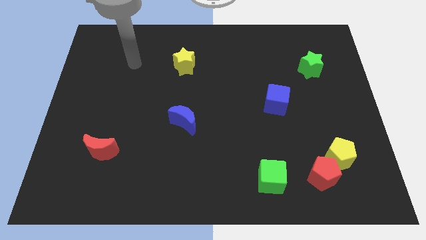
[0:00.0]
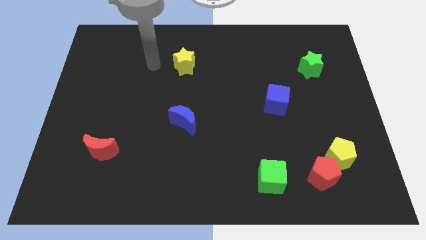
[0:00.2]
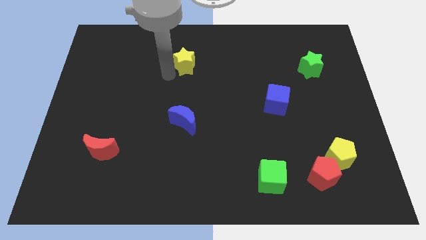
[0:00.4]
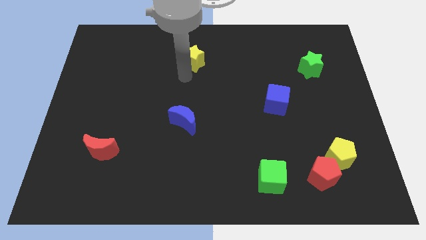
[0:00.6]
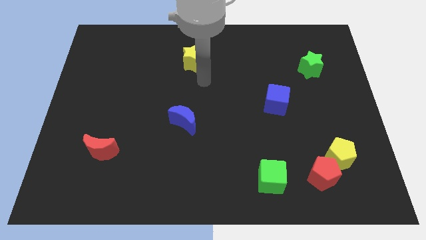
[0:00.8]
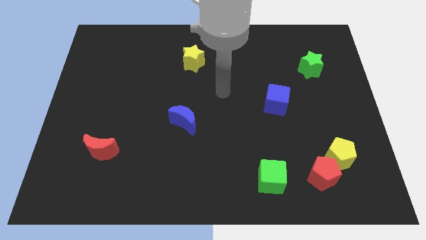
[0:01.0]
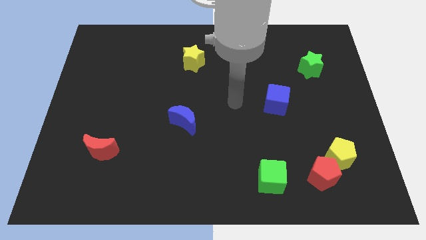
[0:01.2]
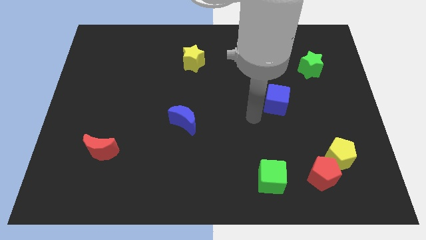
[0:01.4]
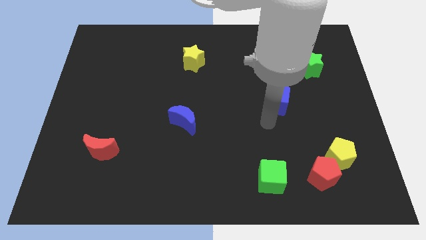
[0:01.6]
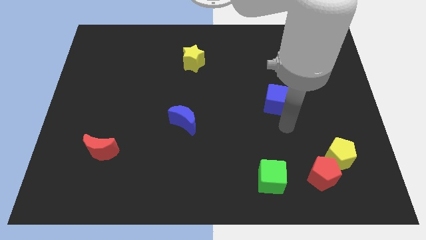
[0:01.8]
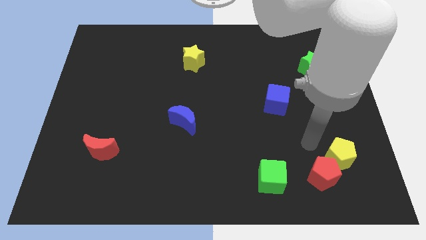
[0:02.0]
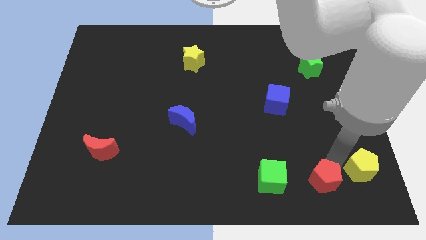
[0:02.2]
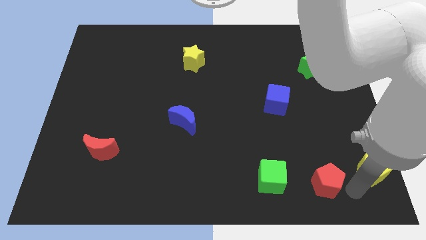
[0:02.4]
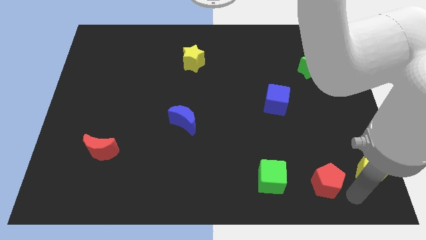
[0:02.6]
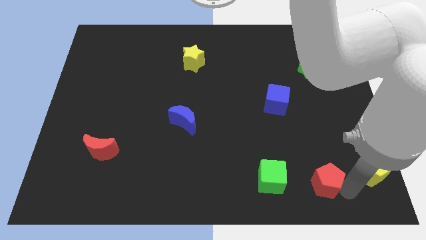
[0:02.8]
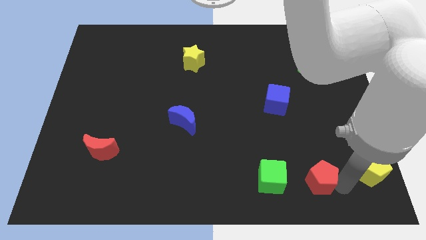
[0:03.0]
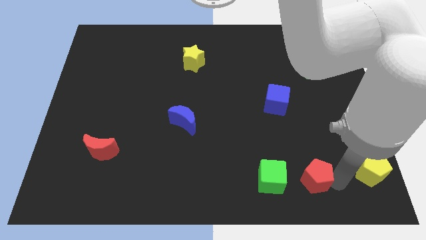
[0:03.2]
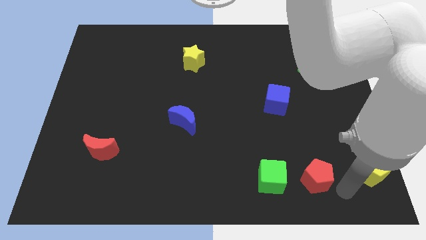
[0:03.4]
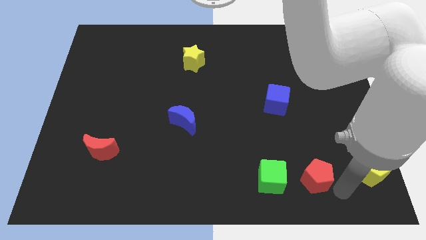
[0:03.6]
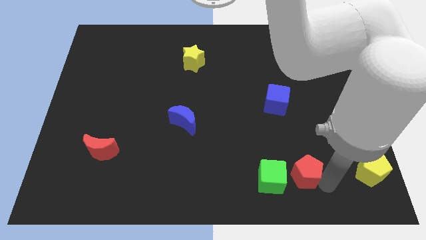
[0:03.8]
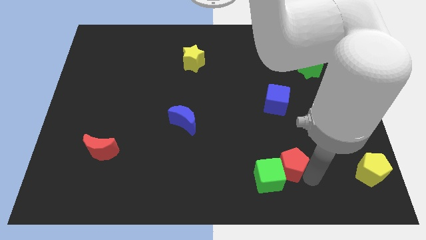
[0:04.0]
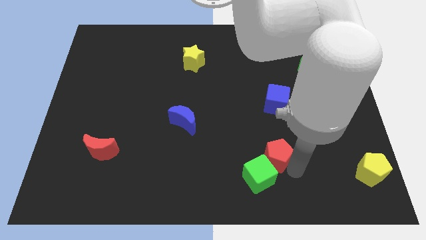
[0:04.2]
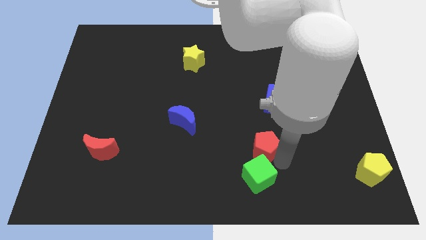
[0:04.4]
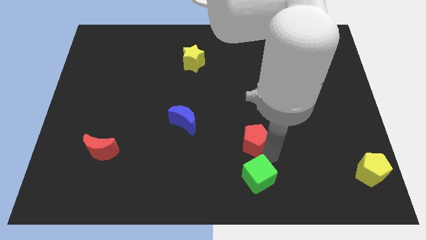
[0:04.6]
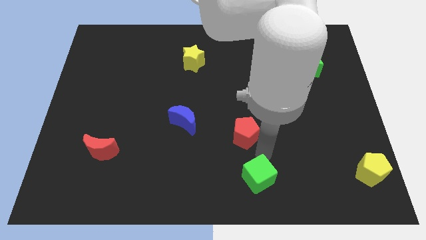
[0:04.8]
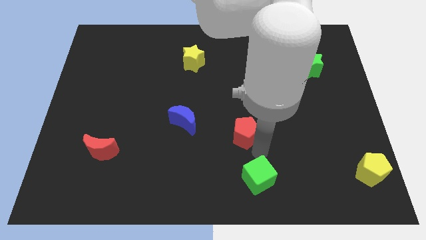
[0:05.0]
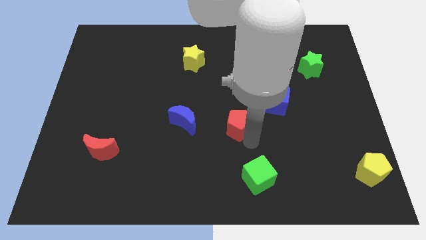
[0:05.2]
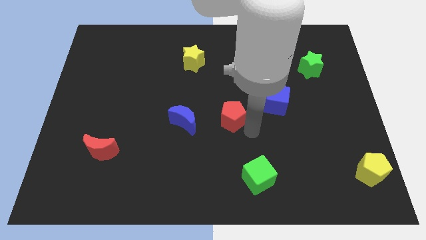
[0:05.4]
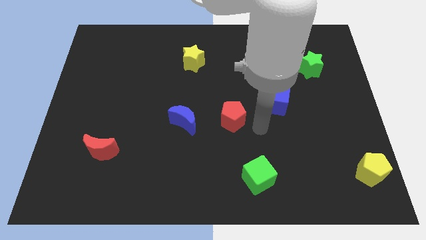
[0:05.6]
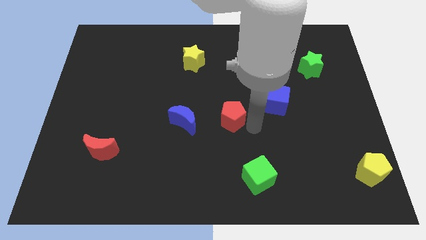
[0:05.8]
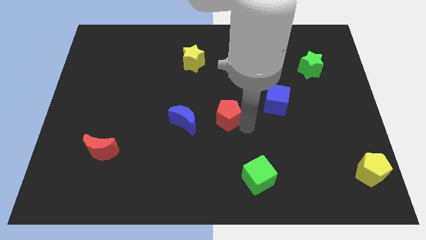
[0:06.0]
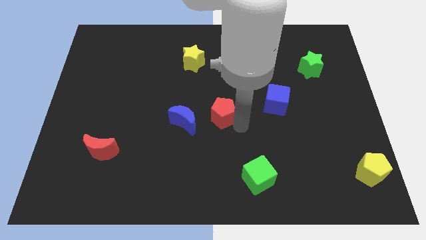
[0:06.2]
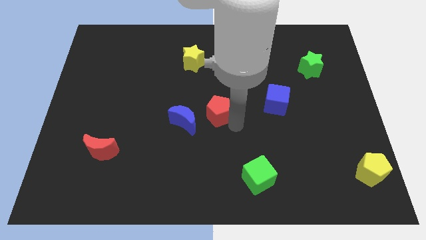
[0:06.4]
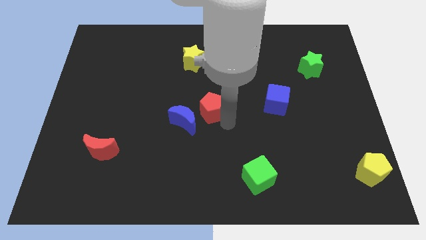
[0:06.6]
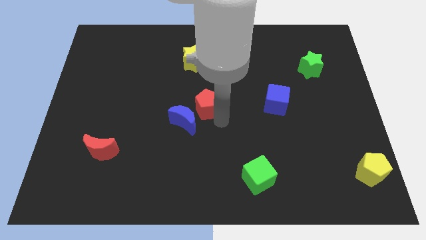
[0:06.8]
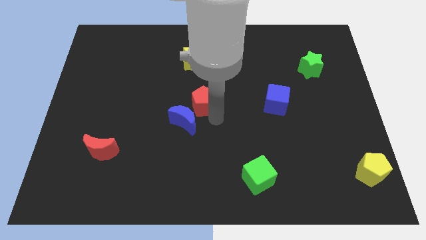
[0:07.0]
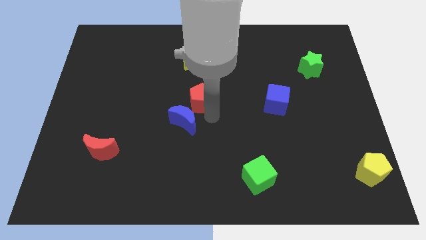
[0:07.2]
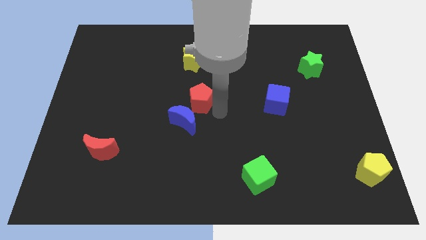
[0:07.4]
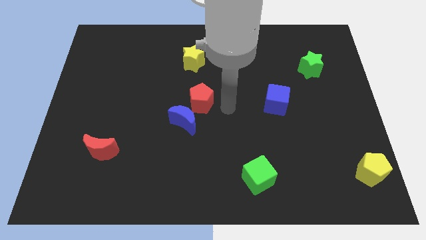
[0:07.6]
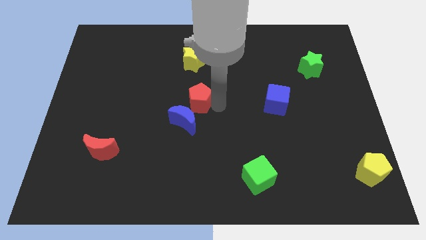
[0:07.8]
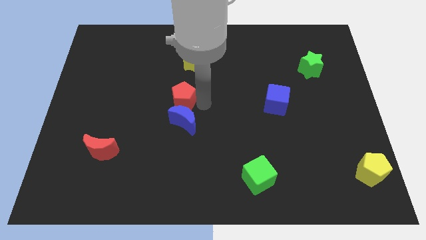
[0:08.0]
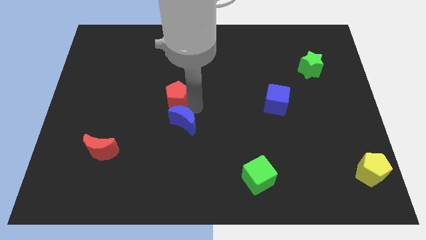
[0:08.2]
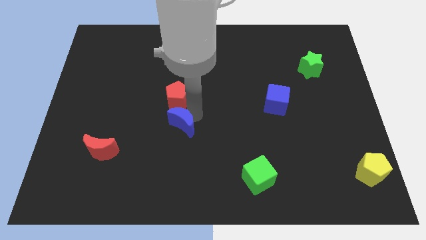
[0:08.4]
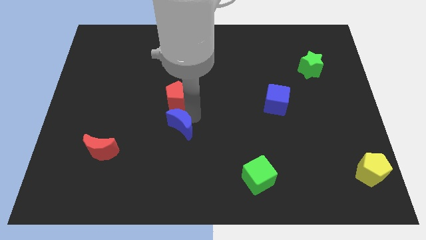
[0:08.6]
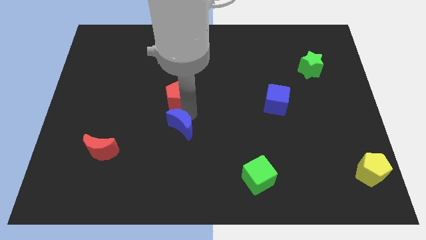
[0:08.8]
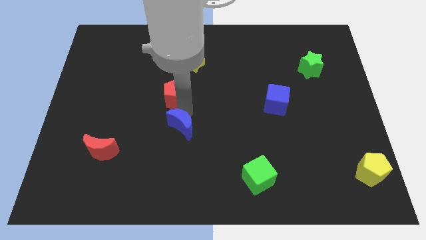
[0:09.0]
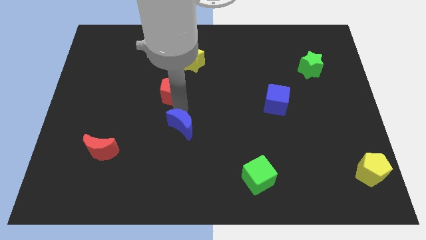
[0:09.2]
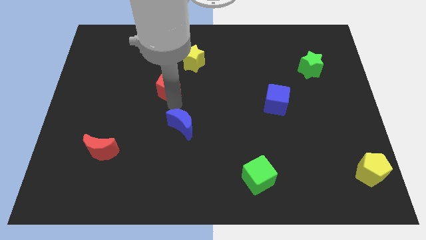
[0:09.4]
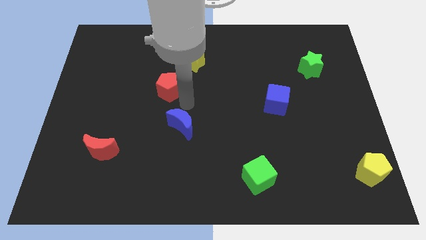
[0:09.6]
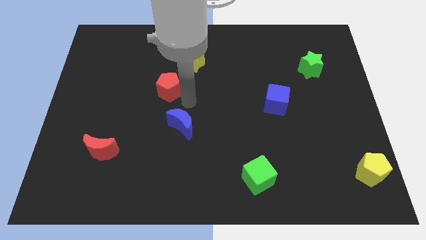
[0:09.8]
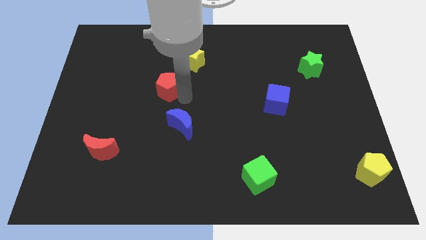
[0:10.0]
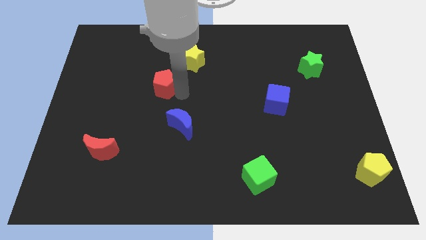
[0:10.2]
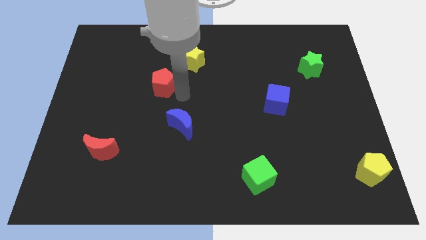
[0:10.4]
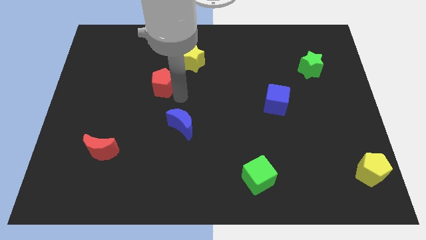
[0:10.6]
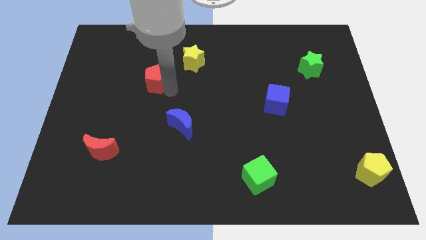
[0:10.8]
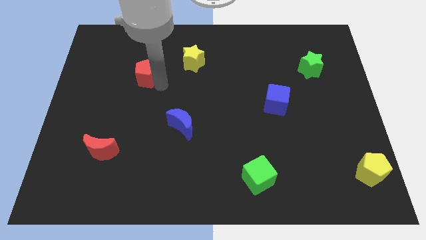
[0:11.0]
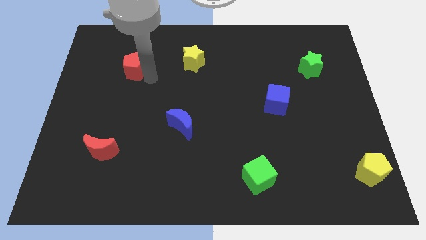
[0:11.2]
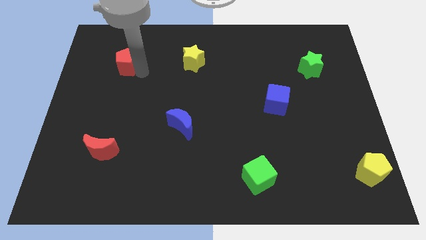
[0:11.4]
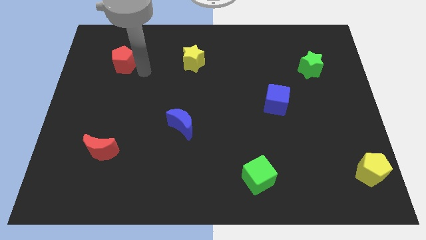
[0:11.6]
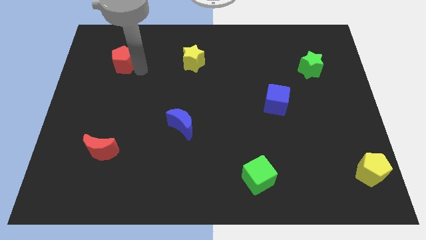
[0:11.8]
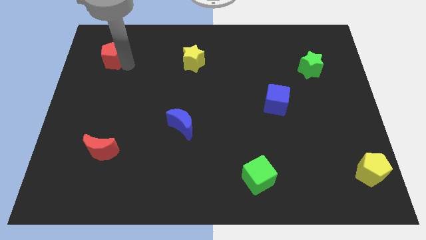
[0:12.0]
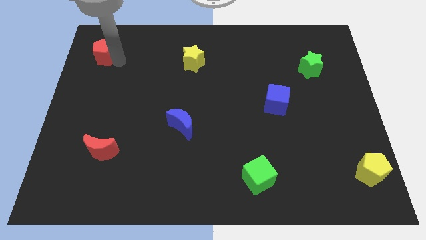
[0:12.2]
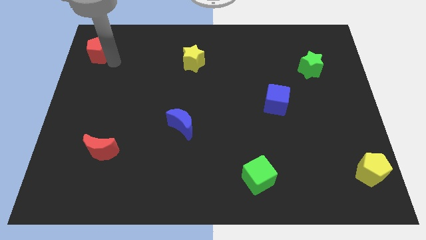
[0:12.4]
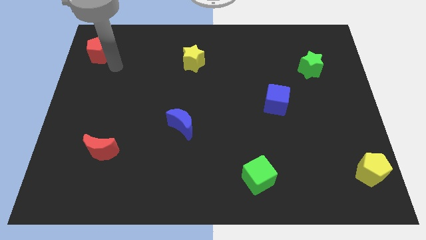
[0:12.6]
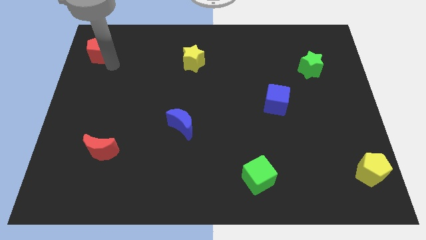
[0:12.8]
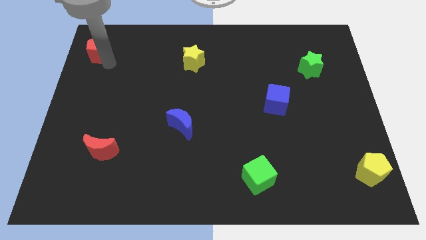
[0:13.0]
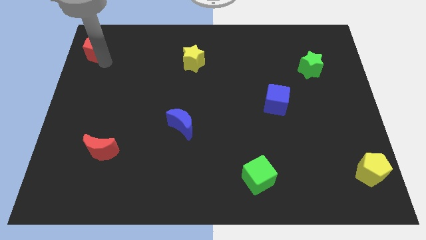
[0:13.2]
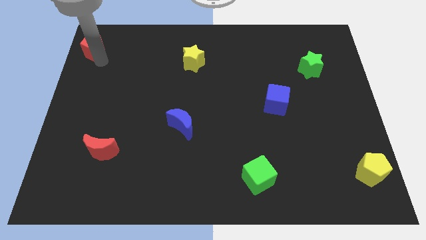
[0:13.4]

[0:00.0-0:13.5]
put the red pentagon to the top left

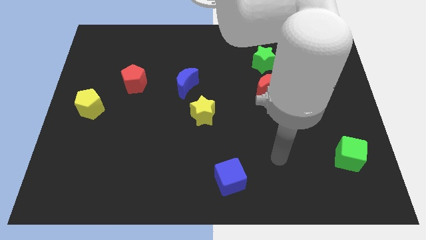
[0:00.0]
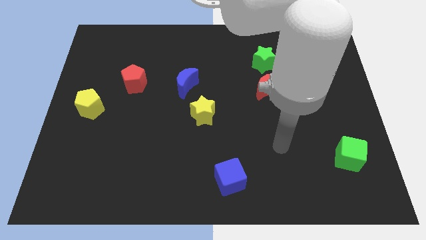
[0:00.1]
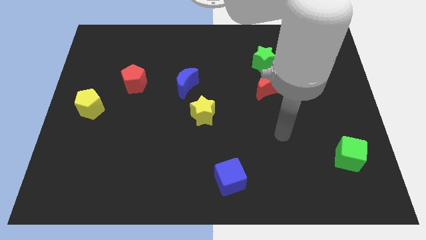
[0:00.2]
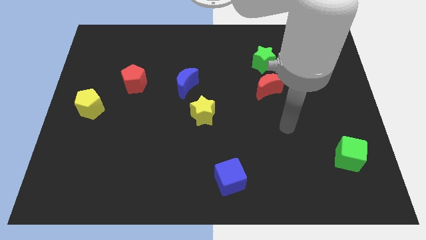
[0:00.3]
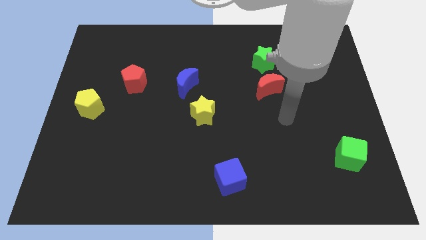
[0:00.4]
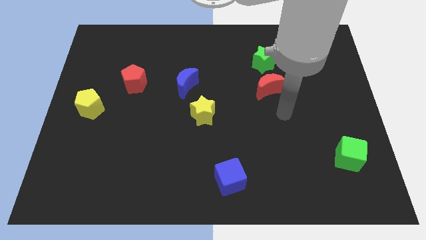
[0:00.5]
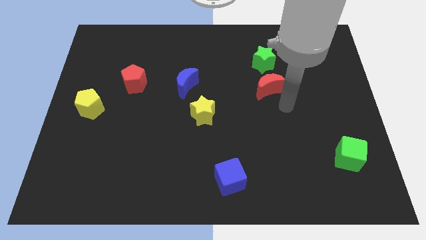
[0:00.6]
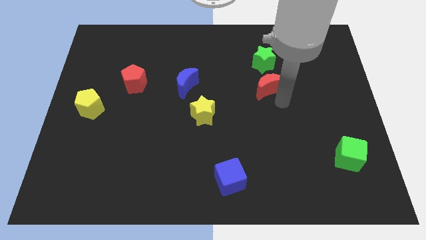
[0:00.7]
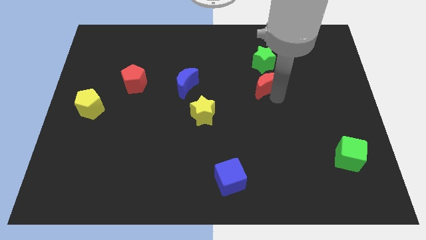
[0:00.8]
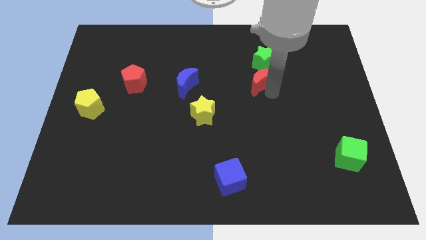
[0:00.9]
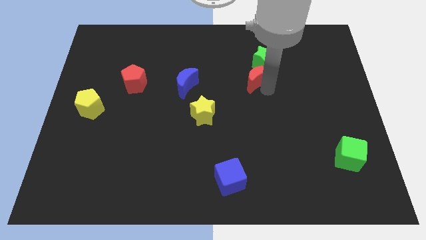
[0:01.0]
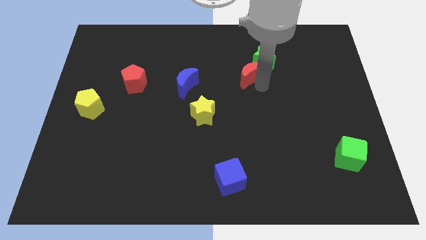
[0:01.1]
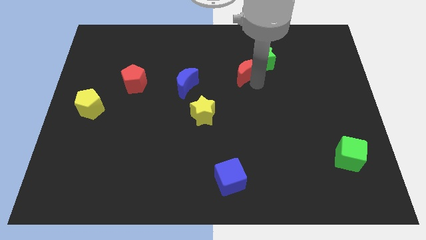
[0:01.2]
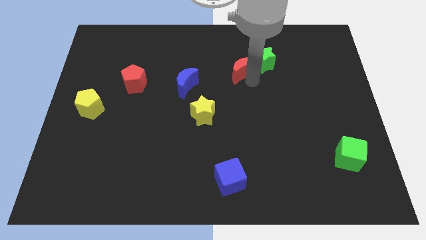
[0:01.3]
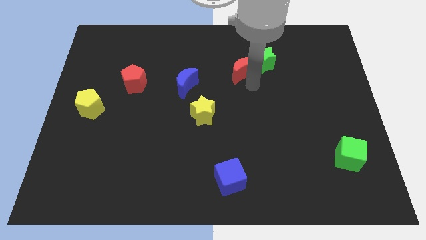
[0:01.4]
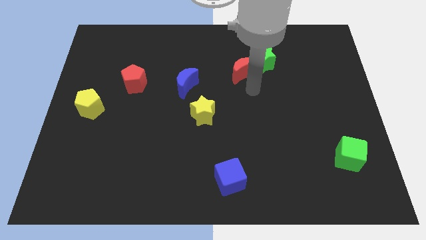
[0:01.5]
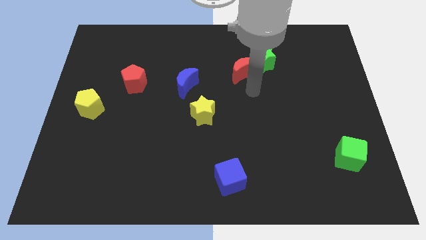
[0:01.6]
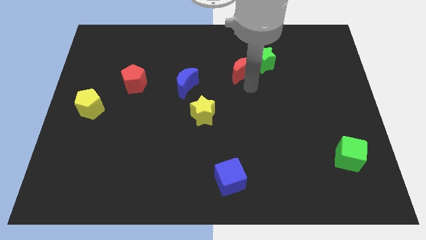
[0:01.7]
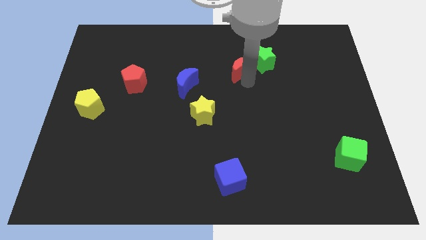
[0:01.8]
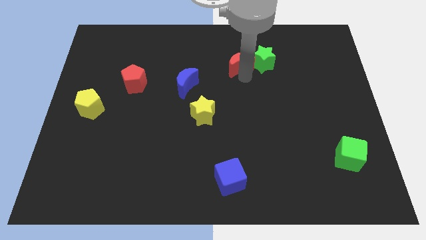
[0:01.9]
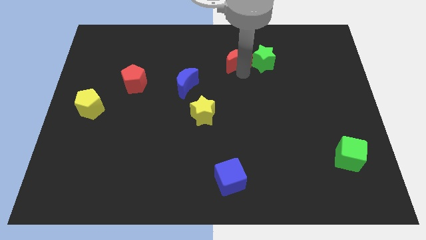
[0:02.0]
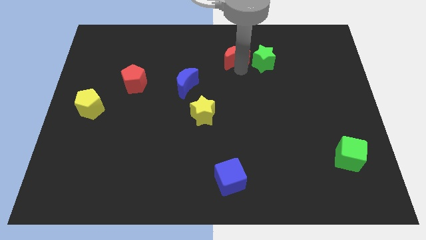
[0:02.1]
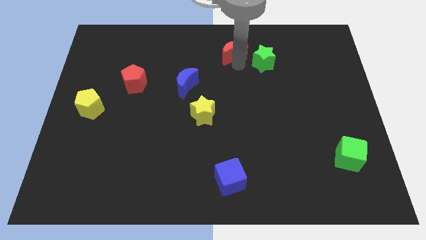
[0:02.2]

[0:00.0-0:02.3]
put the red moon to the top
